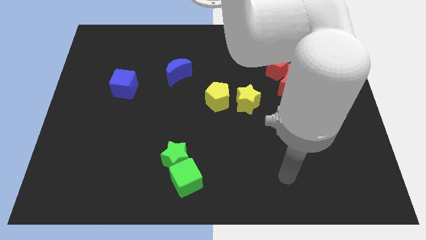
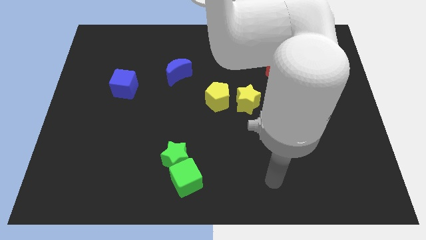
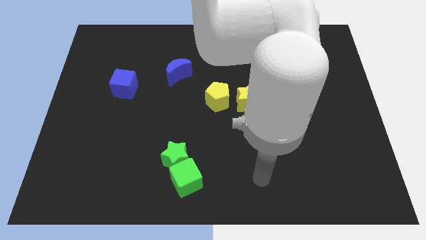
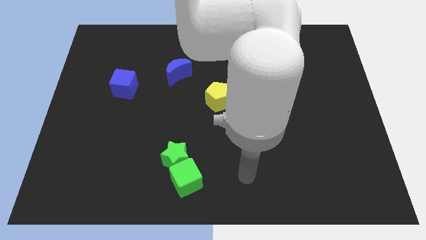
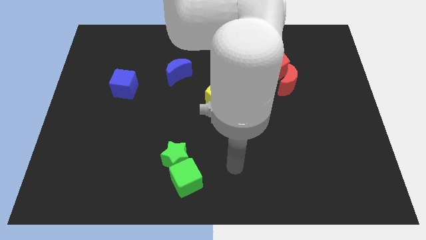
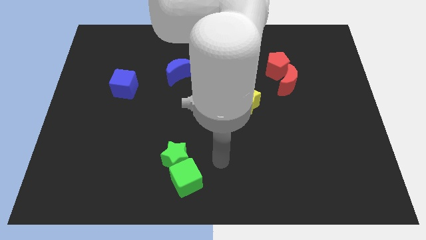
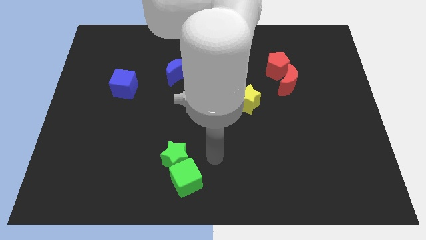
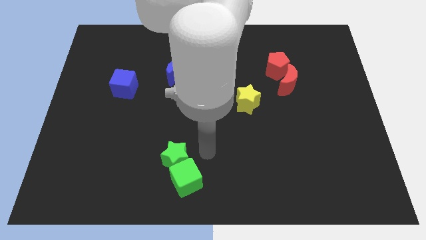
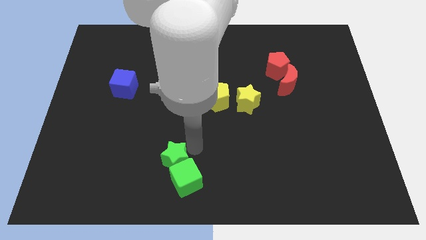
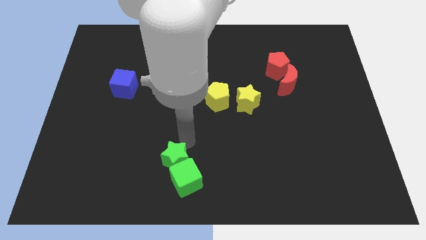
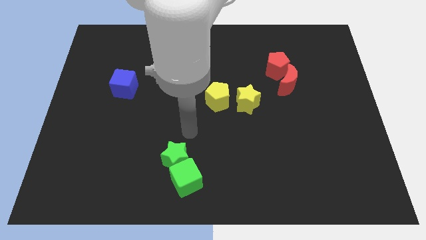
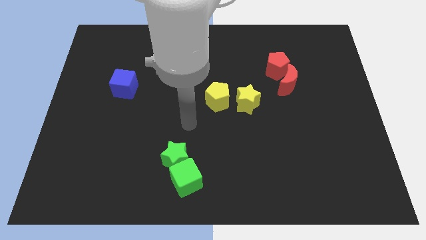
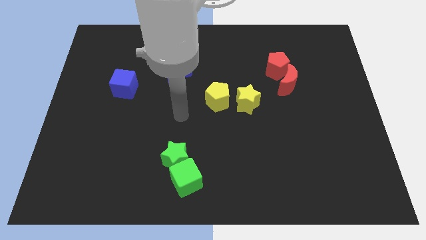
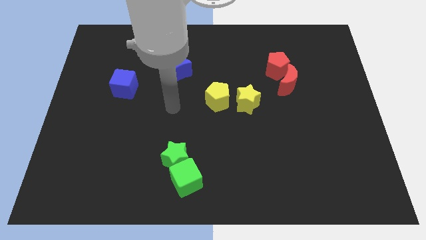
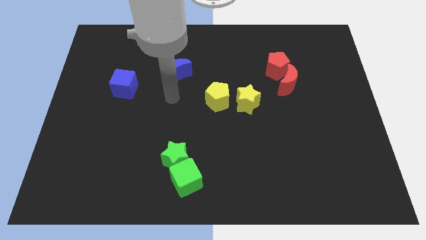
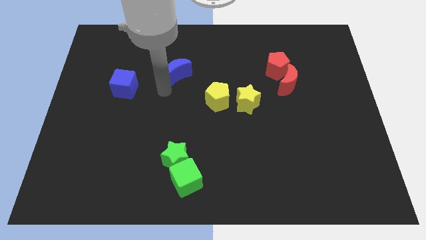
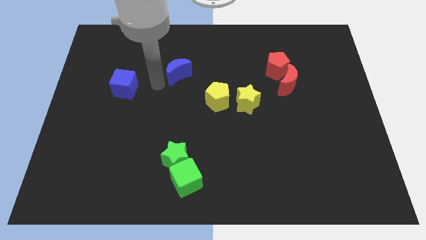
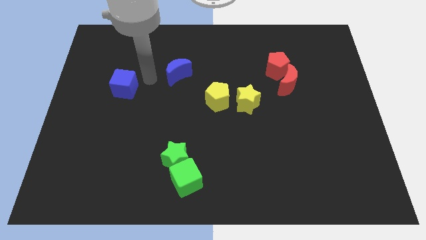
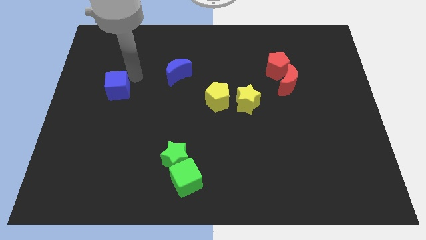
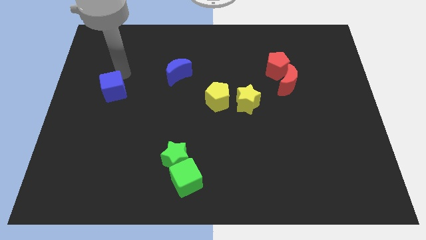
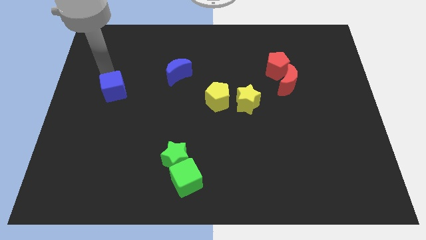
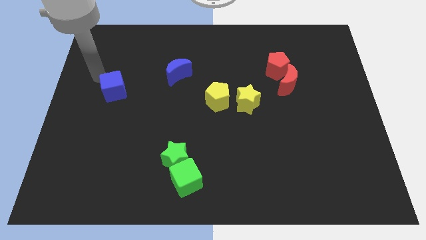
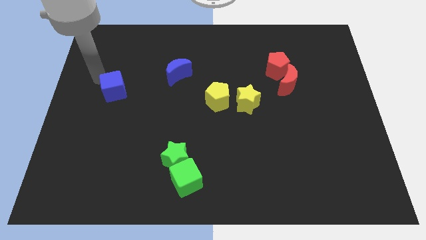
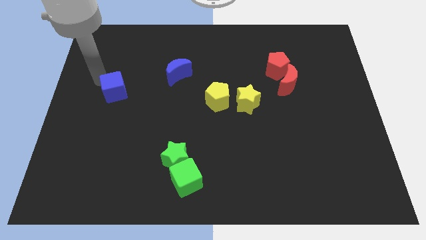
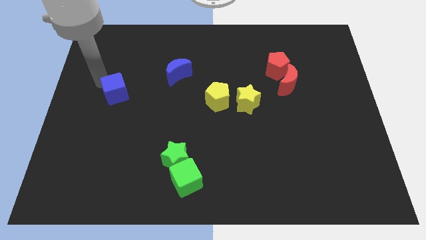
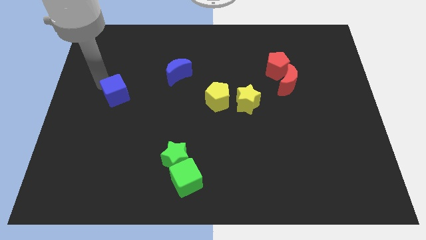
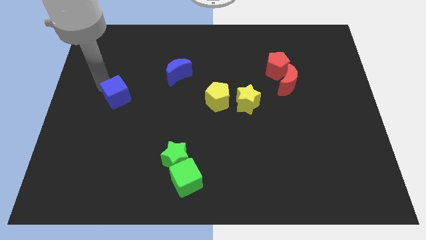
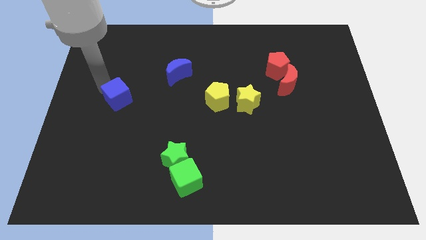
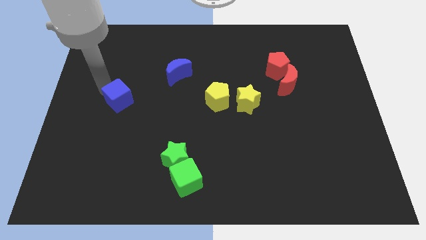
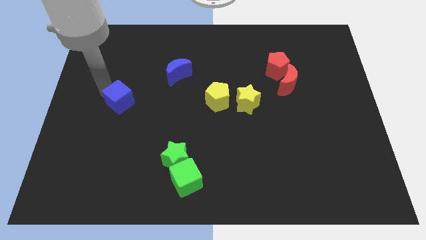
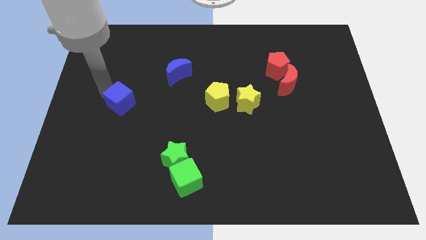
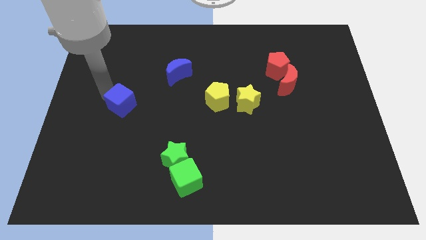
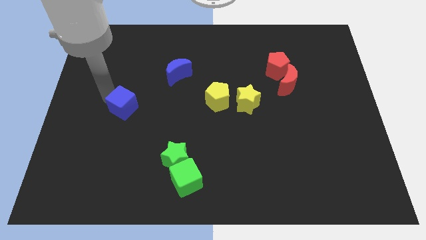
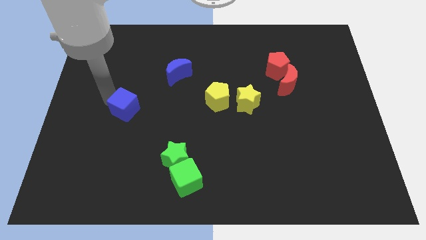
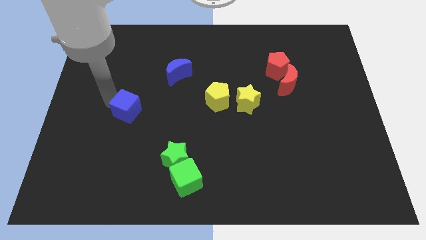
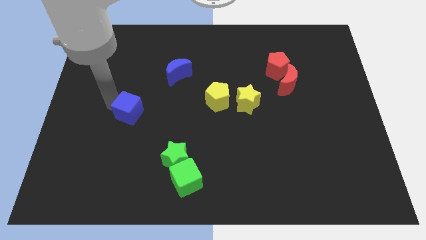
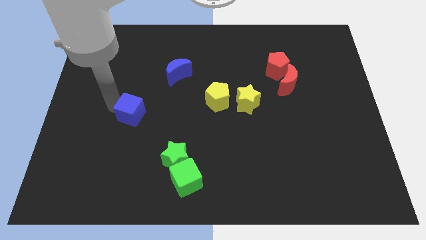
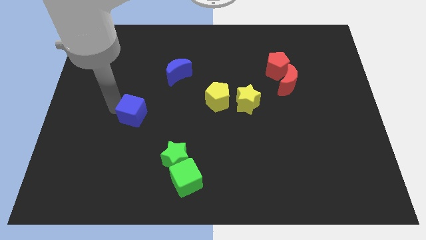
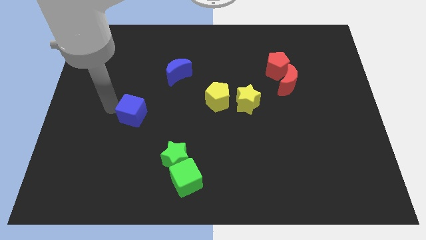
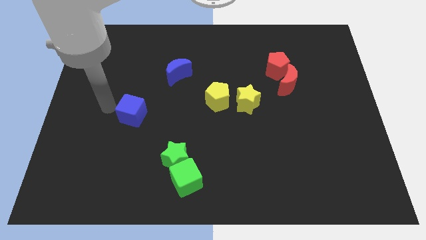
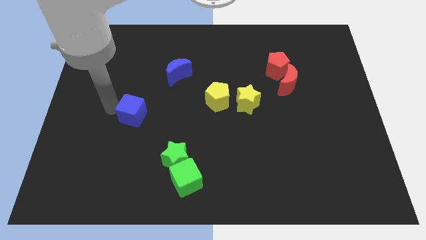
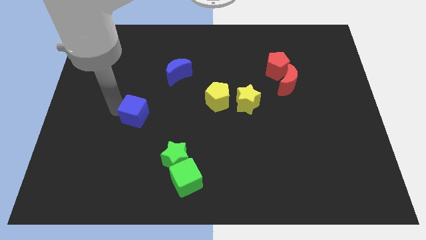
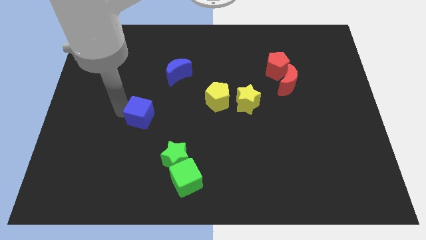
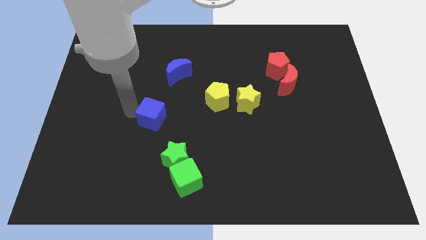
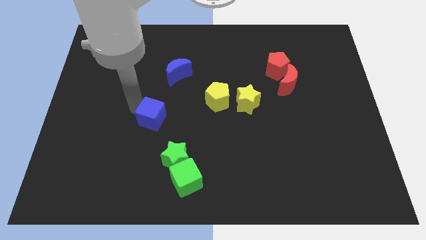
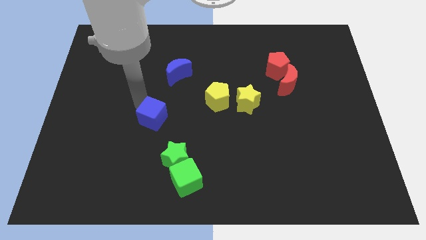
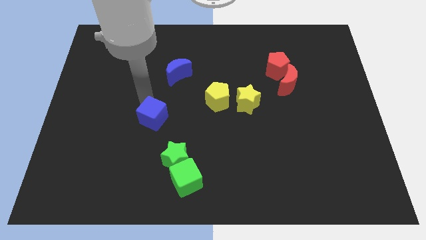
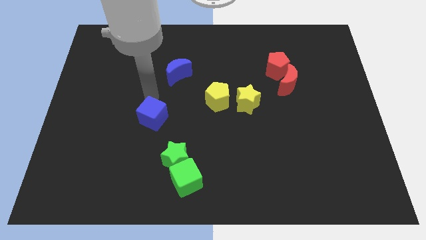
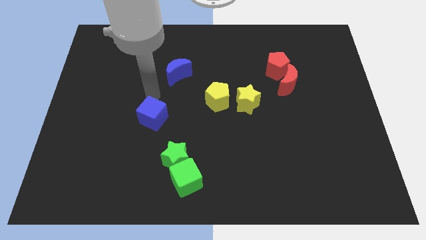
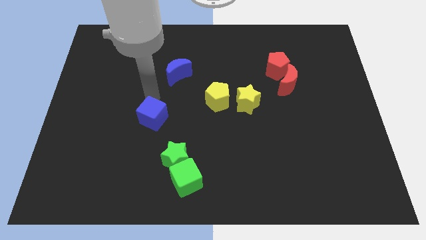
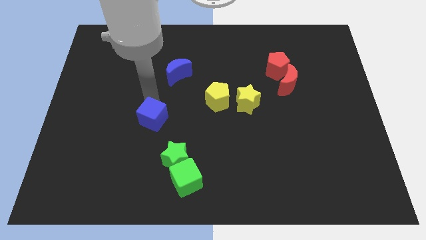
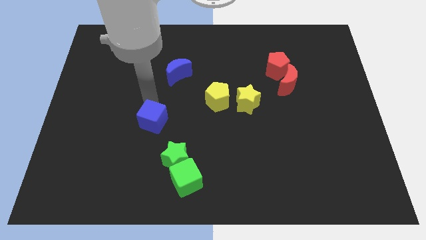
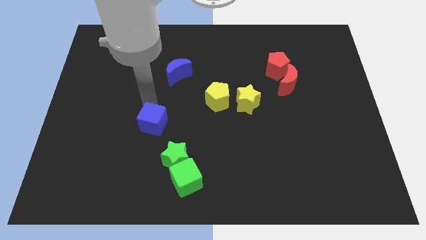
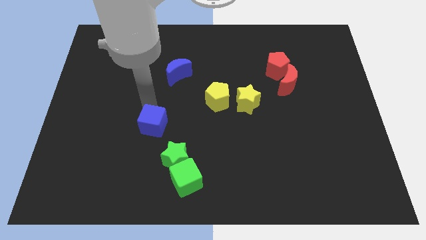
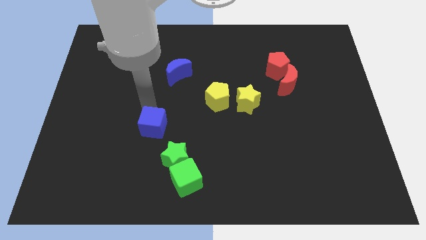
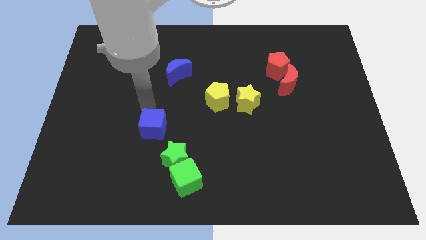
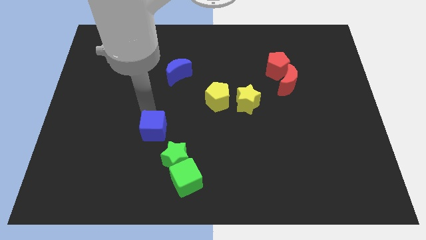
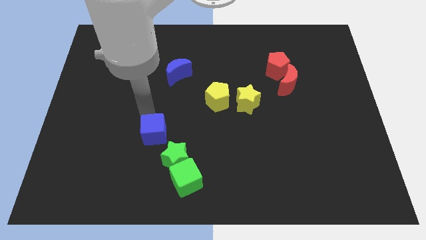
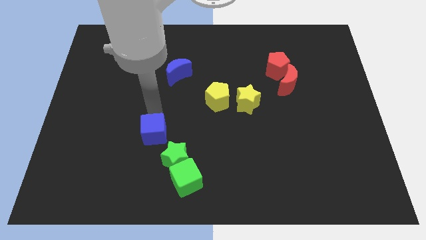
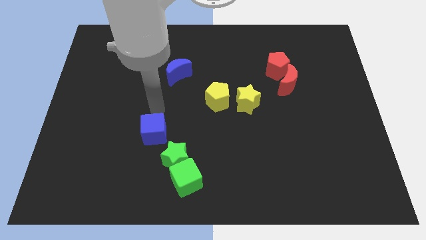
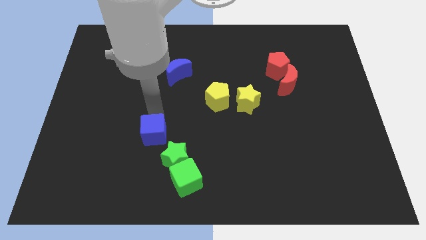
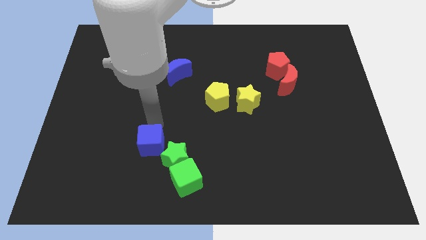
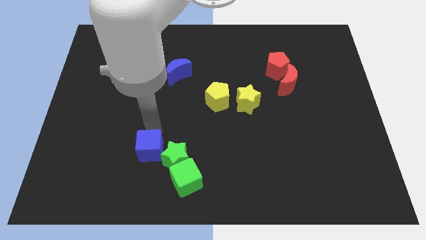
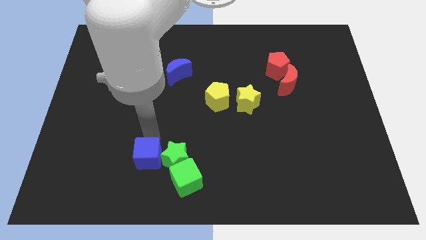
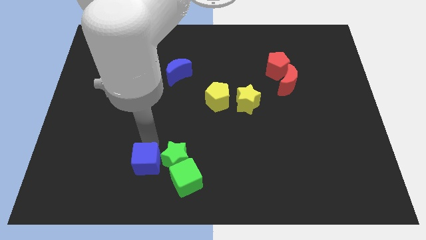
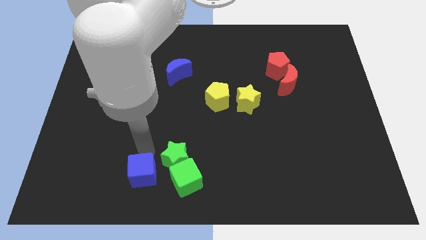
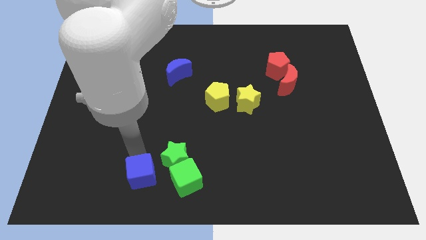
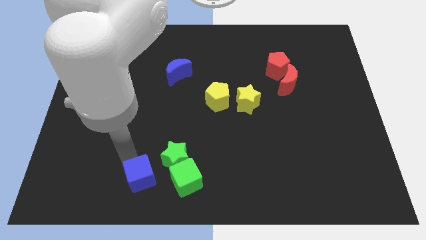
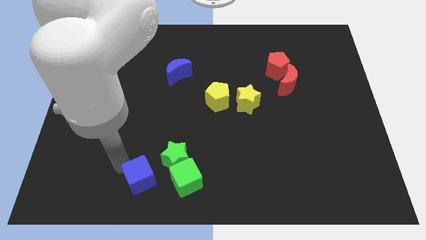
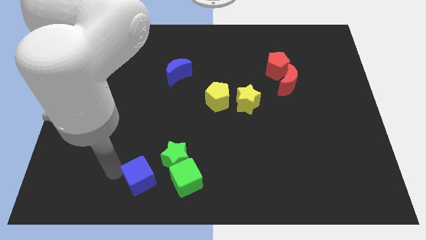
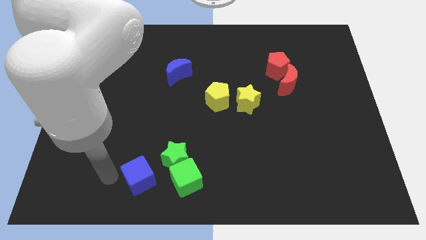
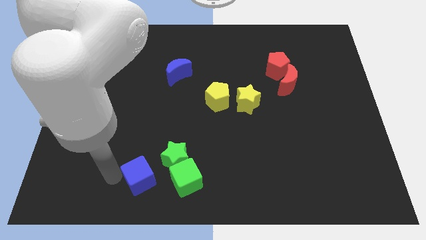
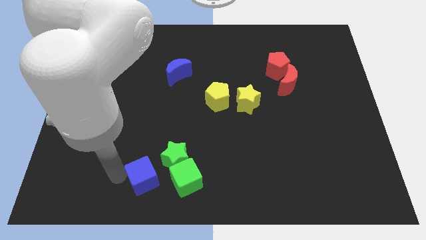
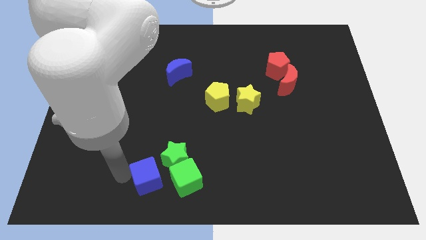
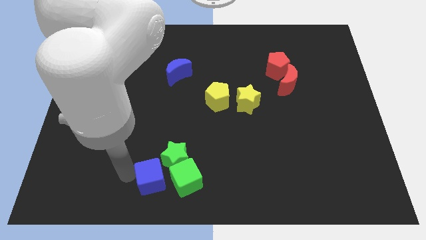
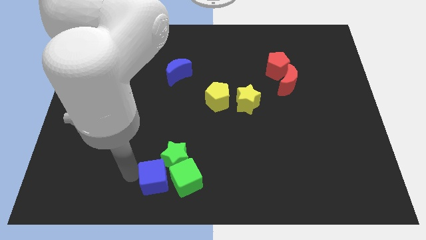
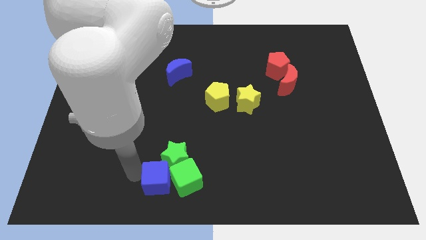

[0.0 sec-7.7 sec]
put the blue cube close to the green cube
